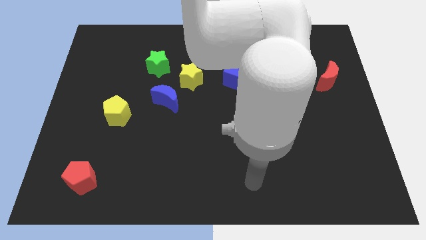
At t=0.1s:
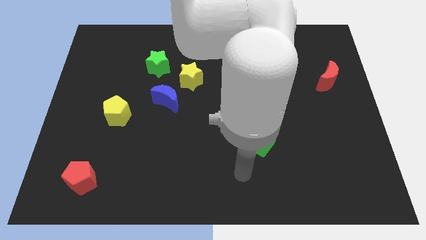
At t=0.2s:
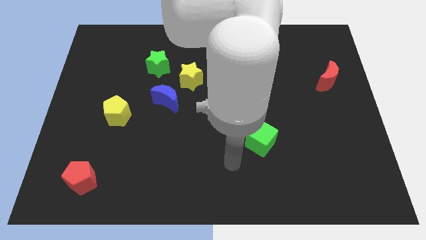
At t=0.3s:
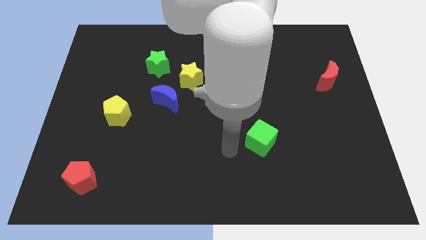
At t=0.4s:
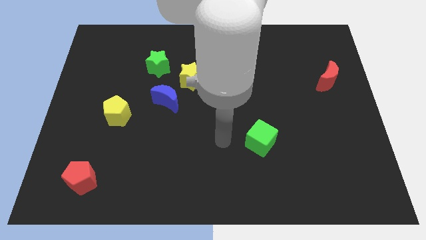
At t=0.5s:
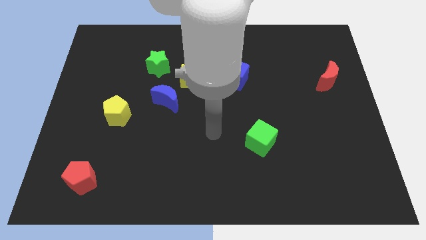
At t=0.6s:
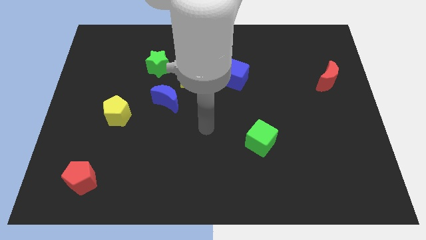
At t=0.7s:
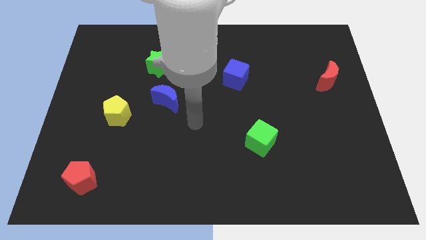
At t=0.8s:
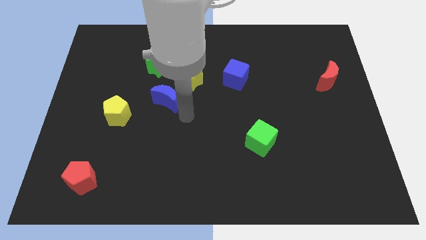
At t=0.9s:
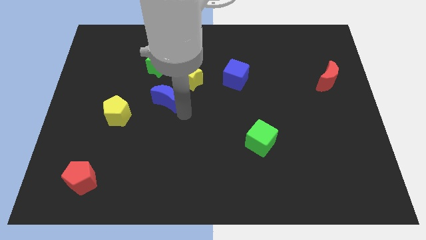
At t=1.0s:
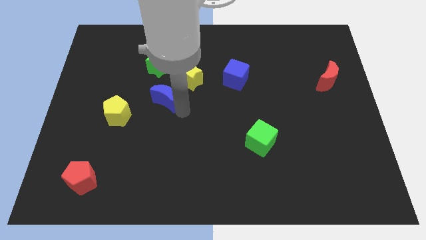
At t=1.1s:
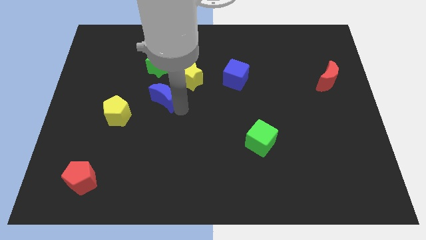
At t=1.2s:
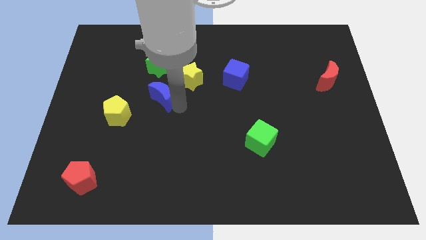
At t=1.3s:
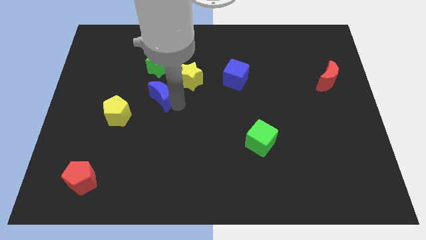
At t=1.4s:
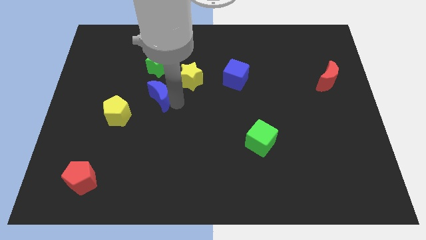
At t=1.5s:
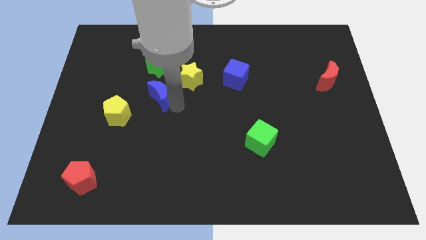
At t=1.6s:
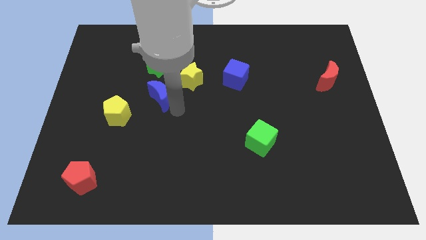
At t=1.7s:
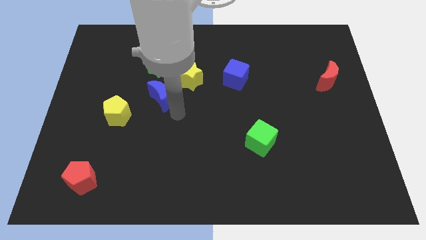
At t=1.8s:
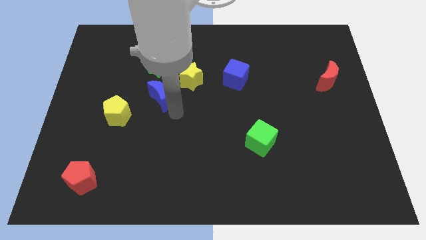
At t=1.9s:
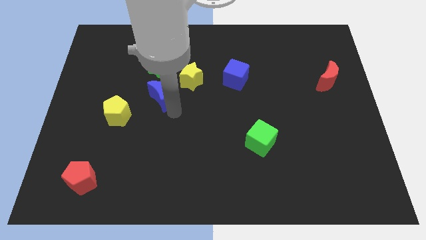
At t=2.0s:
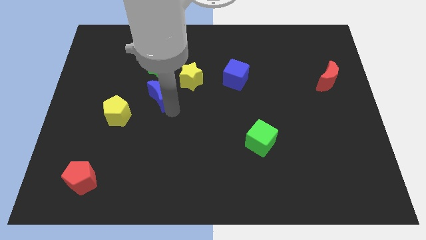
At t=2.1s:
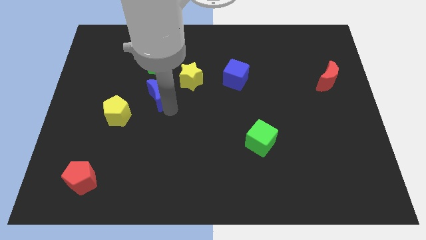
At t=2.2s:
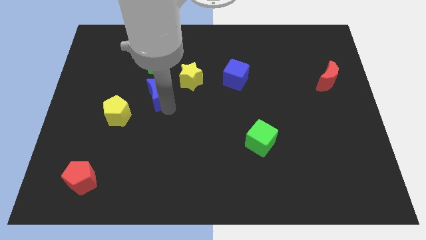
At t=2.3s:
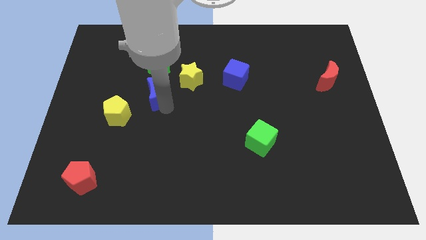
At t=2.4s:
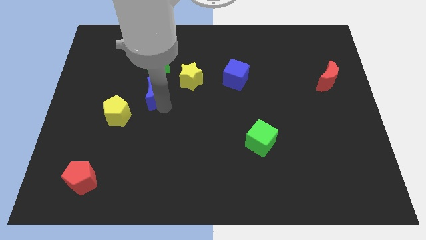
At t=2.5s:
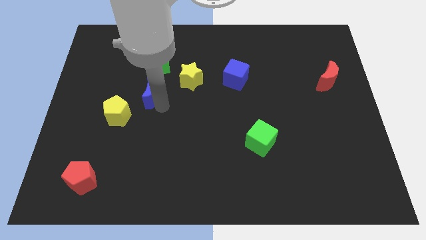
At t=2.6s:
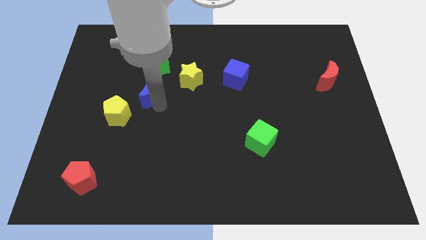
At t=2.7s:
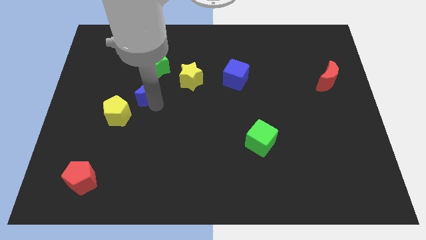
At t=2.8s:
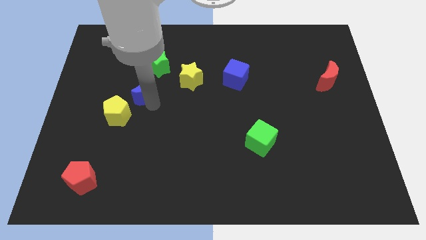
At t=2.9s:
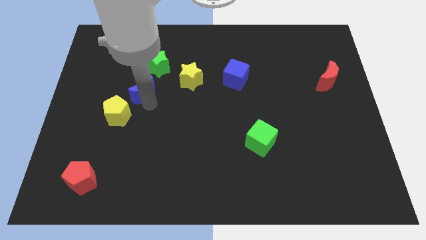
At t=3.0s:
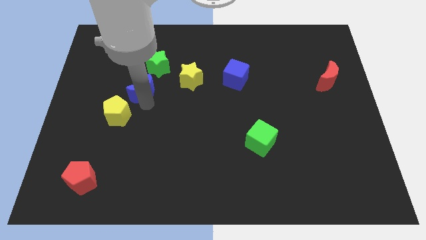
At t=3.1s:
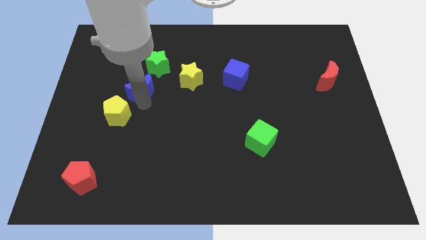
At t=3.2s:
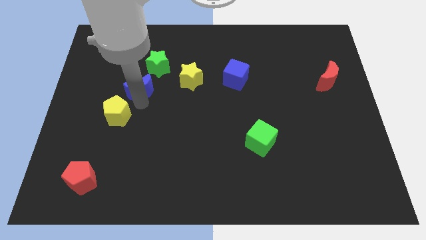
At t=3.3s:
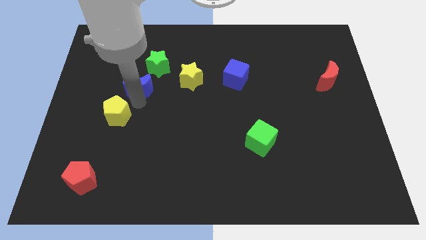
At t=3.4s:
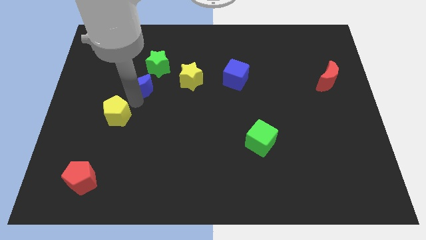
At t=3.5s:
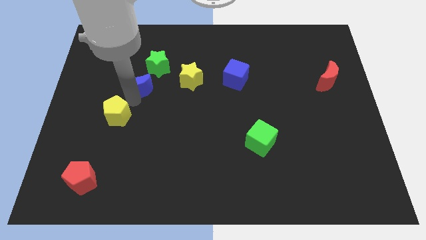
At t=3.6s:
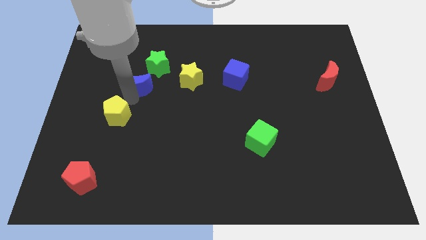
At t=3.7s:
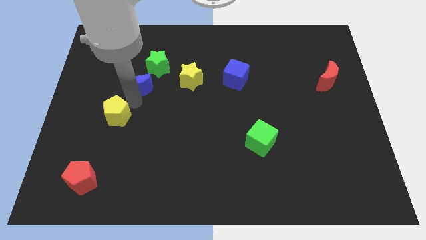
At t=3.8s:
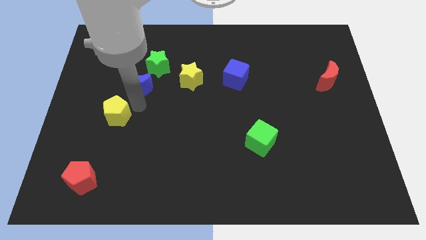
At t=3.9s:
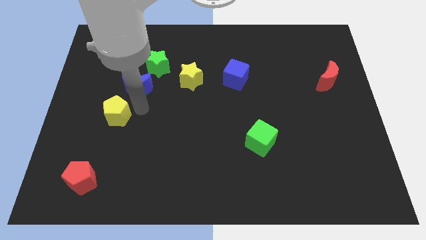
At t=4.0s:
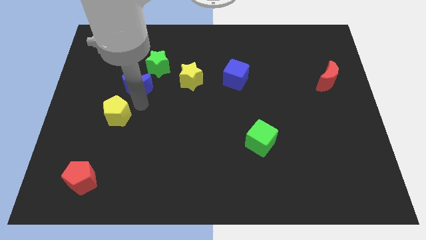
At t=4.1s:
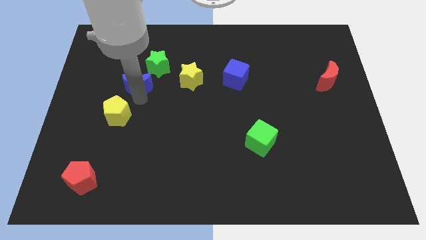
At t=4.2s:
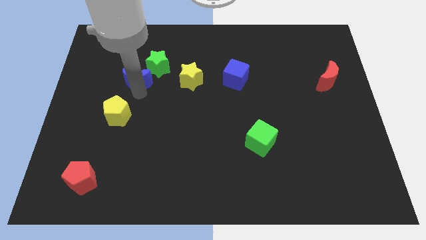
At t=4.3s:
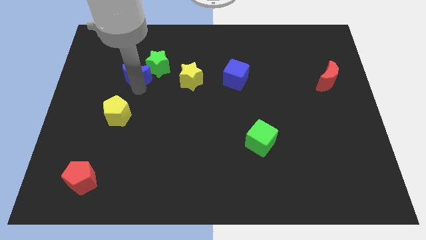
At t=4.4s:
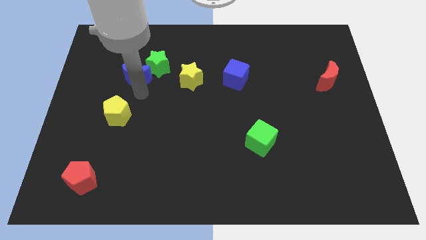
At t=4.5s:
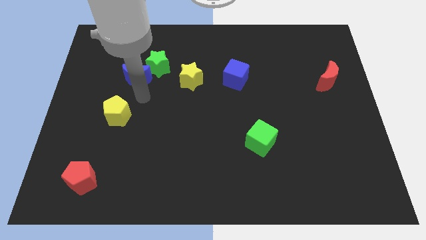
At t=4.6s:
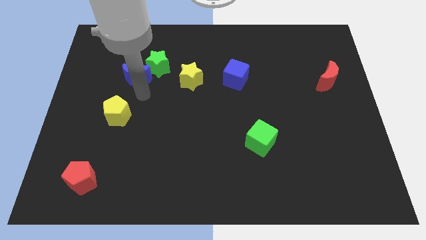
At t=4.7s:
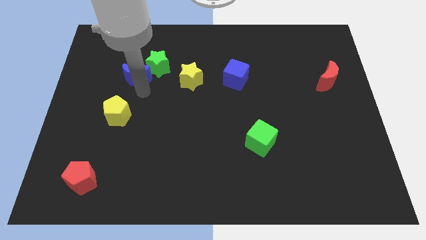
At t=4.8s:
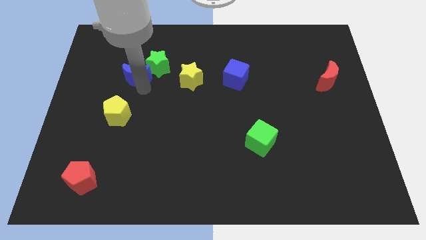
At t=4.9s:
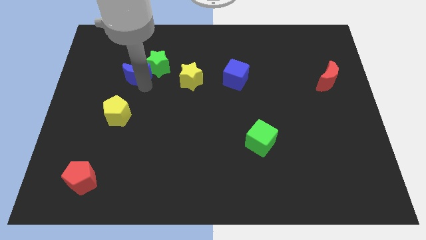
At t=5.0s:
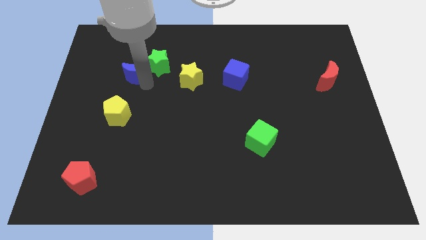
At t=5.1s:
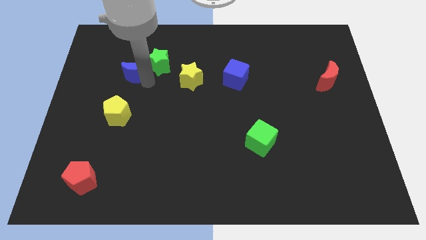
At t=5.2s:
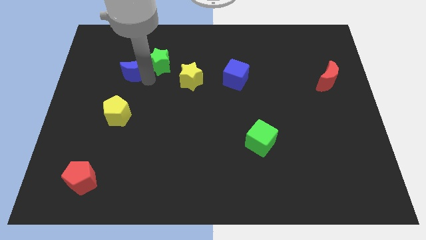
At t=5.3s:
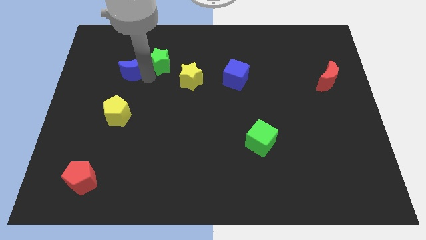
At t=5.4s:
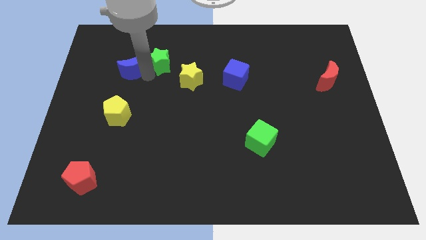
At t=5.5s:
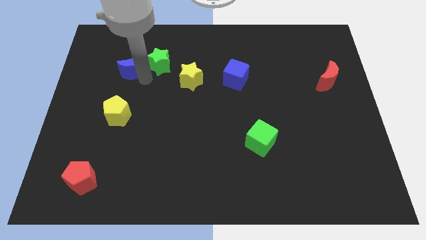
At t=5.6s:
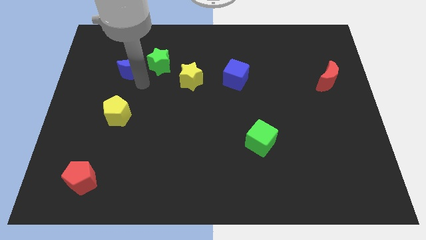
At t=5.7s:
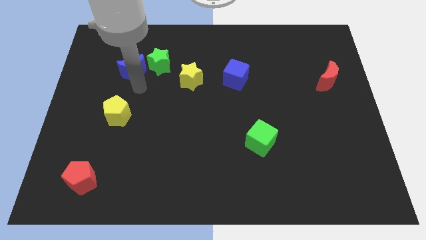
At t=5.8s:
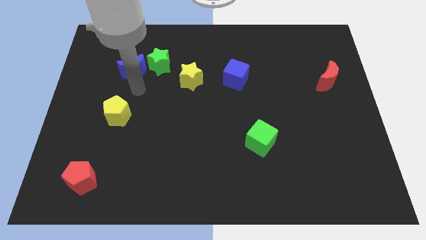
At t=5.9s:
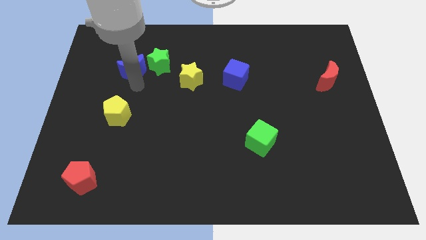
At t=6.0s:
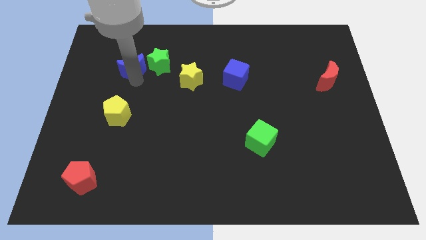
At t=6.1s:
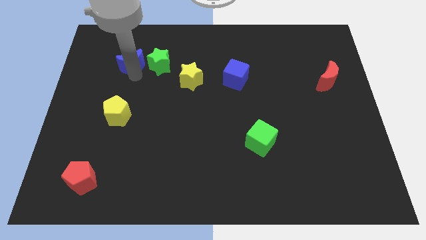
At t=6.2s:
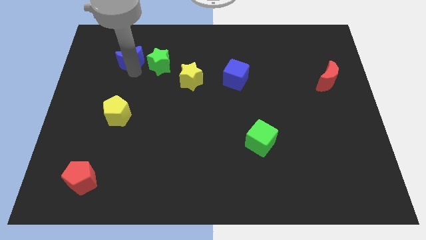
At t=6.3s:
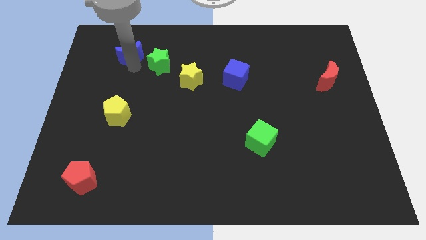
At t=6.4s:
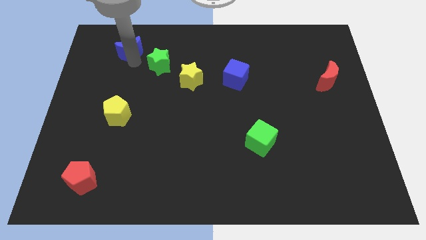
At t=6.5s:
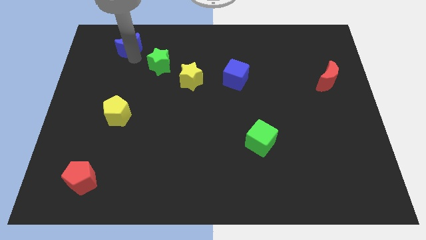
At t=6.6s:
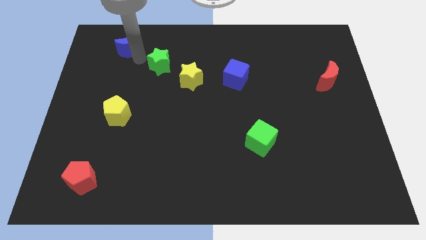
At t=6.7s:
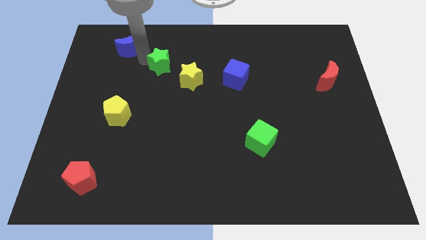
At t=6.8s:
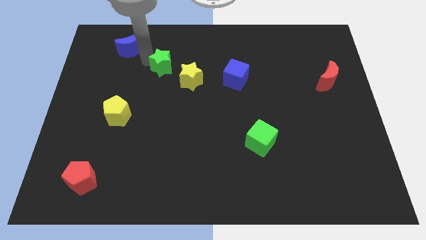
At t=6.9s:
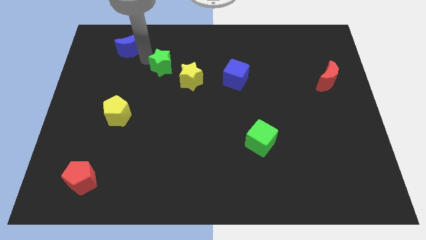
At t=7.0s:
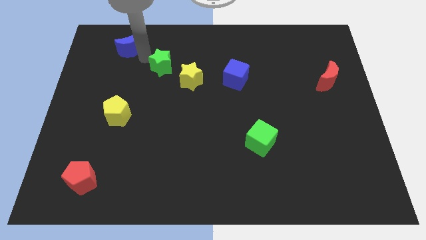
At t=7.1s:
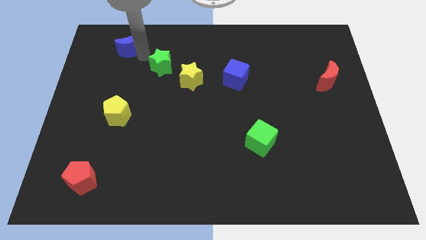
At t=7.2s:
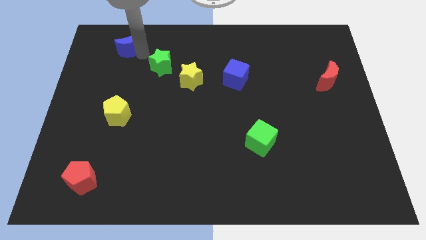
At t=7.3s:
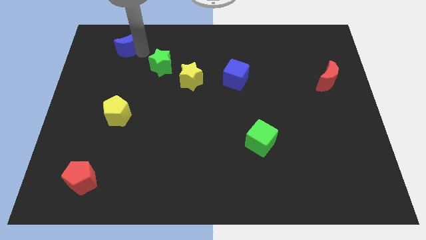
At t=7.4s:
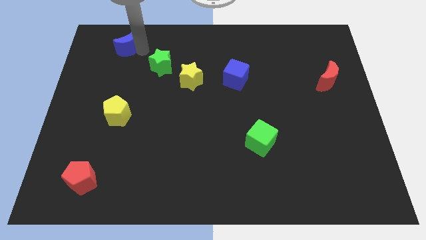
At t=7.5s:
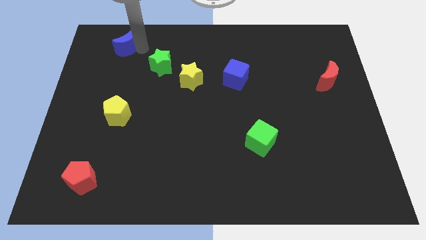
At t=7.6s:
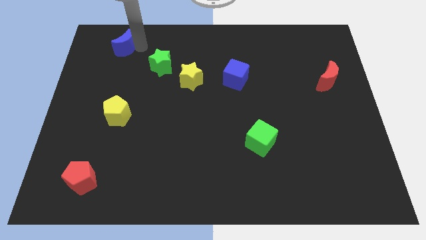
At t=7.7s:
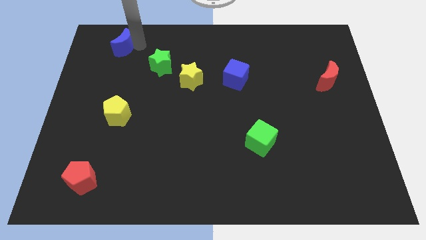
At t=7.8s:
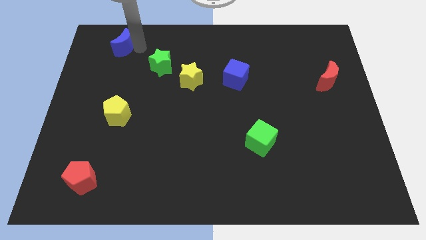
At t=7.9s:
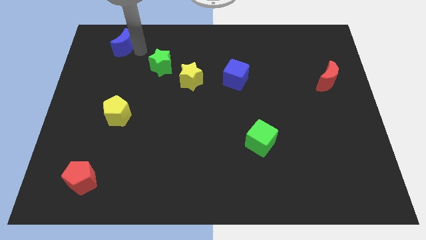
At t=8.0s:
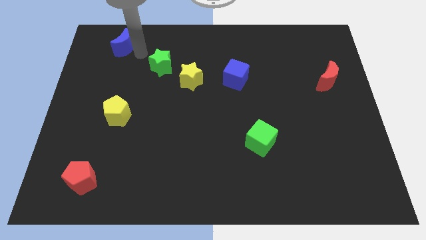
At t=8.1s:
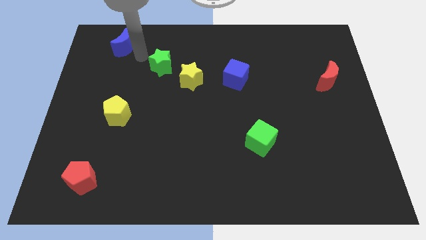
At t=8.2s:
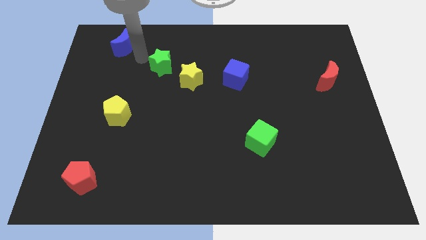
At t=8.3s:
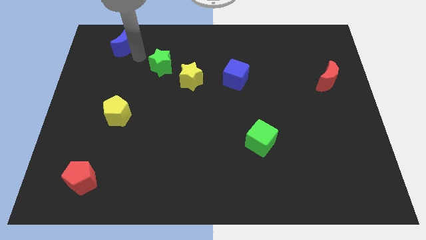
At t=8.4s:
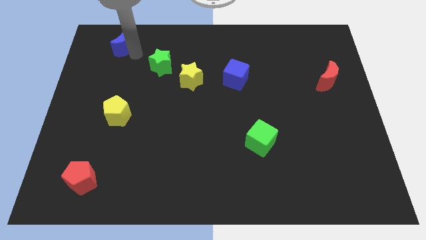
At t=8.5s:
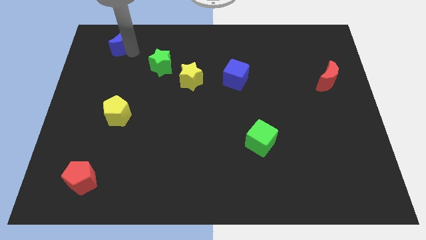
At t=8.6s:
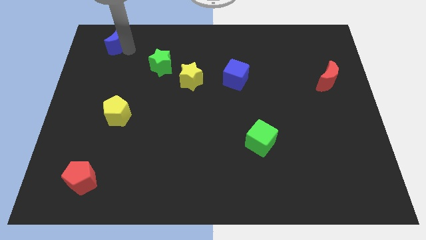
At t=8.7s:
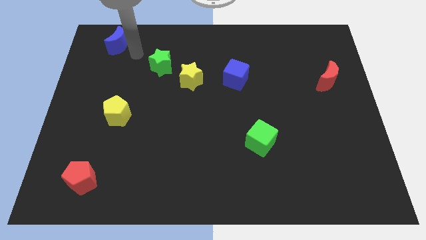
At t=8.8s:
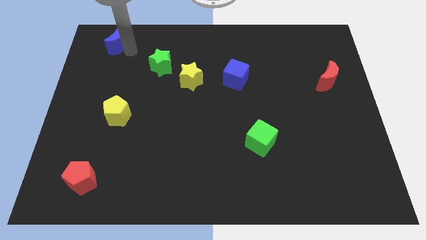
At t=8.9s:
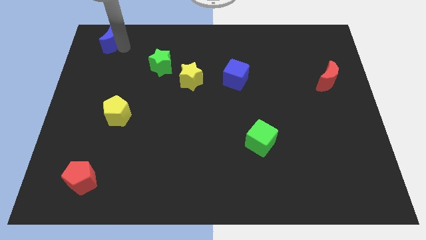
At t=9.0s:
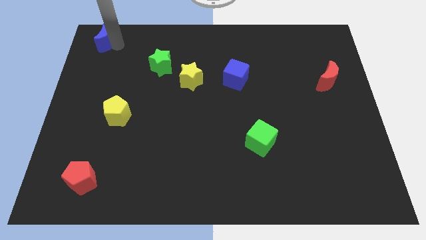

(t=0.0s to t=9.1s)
put the blue moon to the upper left corner
